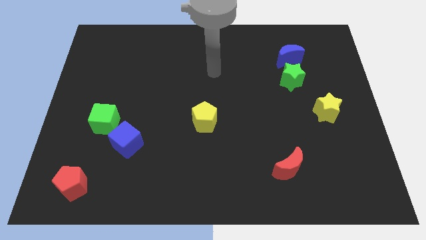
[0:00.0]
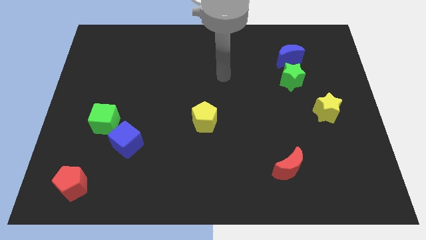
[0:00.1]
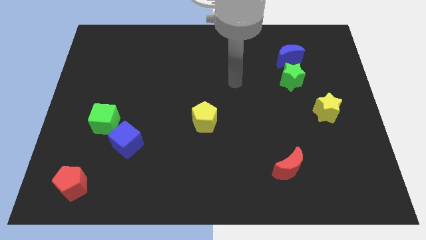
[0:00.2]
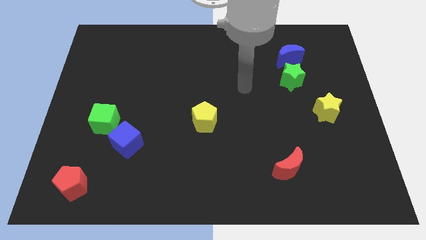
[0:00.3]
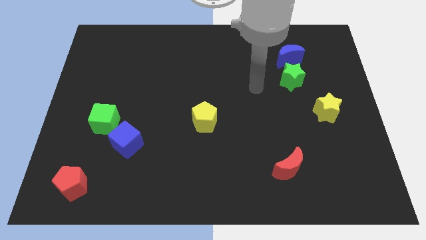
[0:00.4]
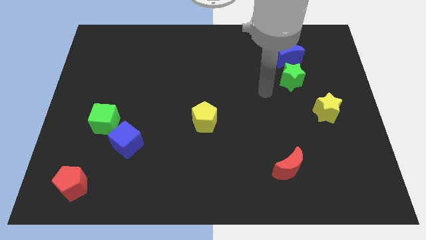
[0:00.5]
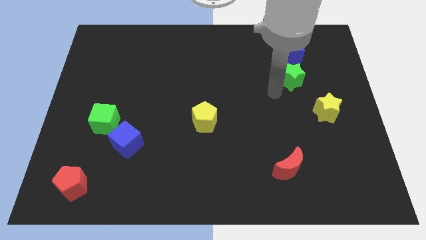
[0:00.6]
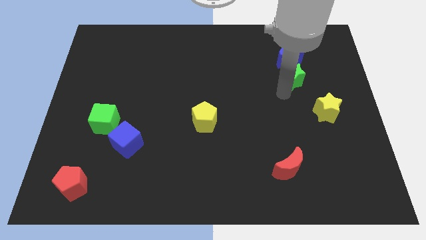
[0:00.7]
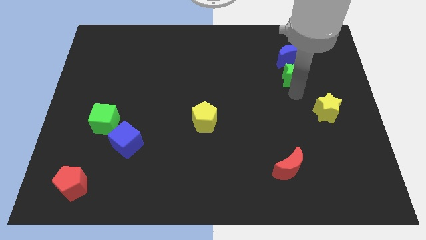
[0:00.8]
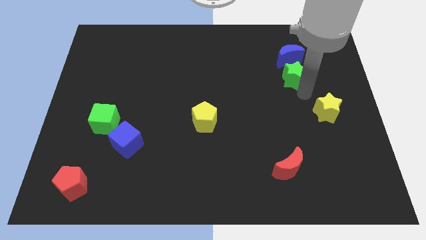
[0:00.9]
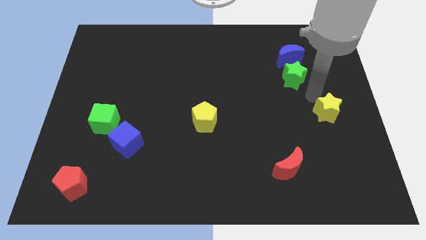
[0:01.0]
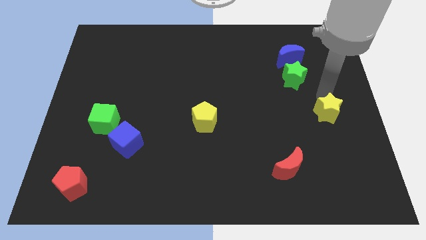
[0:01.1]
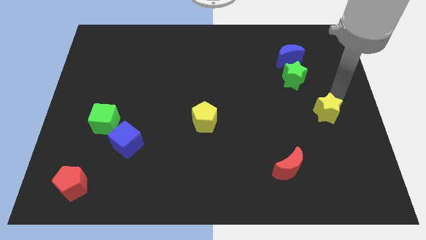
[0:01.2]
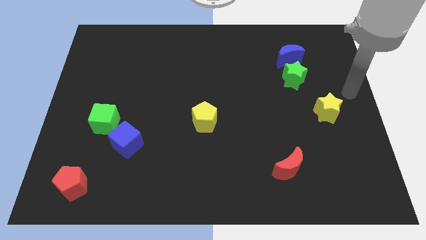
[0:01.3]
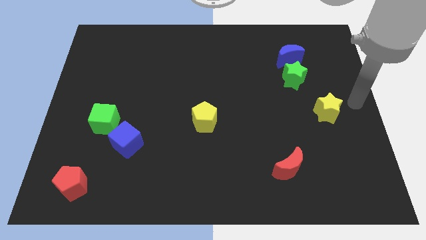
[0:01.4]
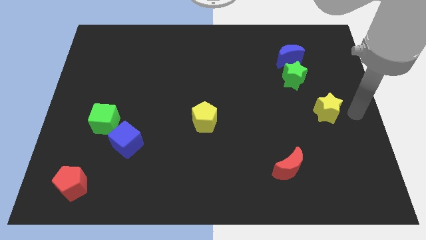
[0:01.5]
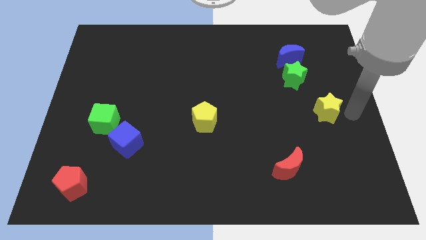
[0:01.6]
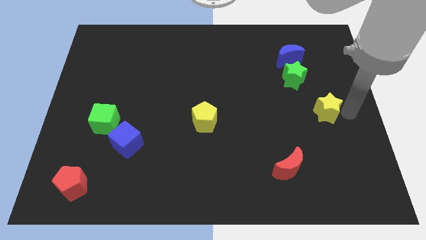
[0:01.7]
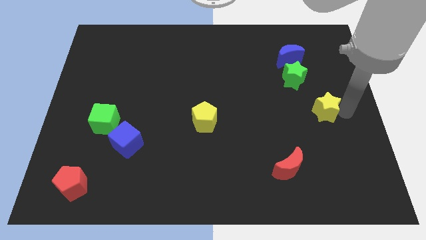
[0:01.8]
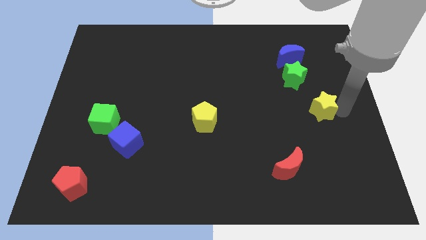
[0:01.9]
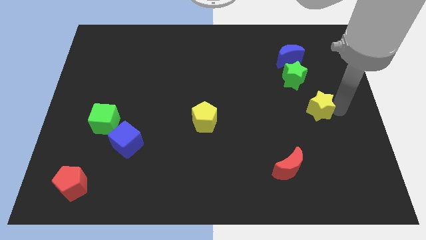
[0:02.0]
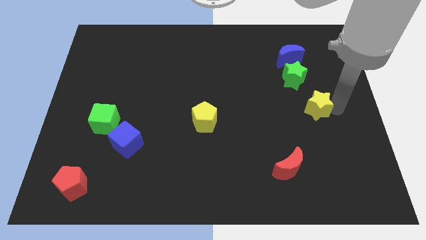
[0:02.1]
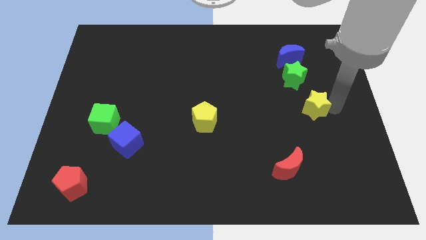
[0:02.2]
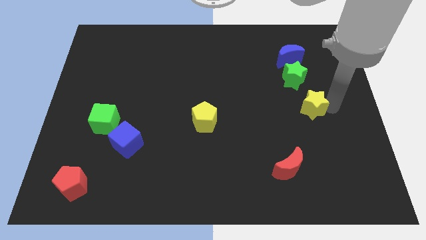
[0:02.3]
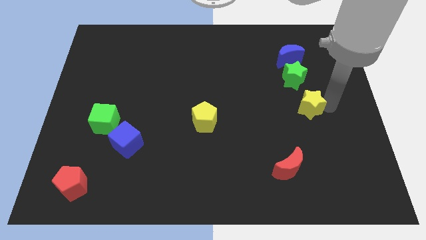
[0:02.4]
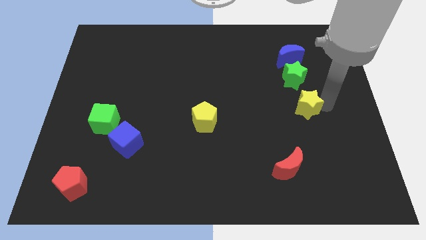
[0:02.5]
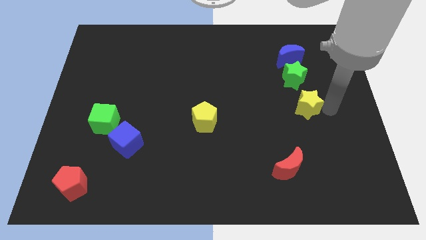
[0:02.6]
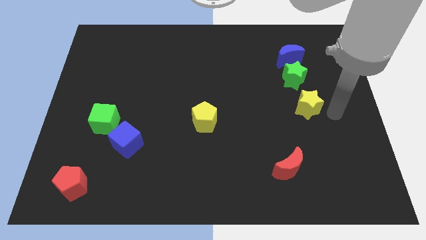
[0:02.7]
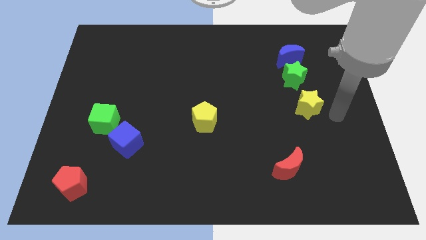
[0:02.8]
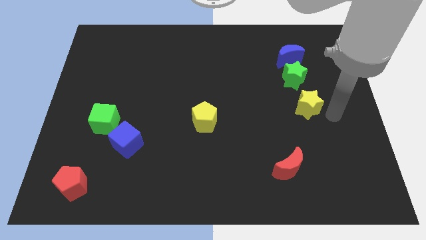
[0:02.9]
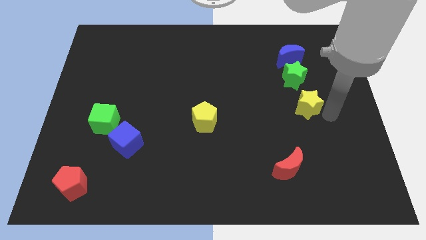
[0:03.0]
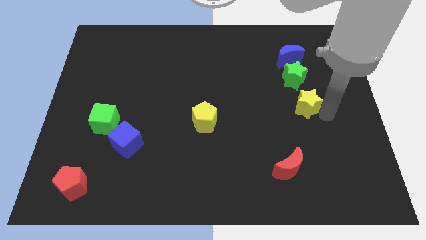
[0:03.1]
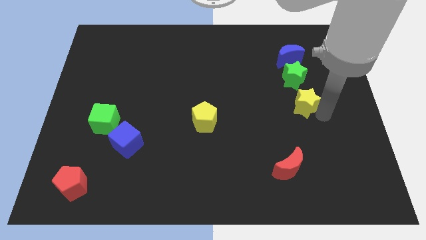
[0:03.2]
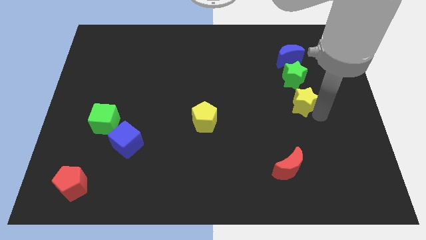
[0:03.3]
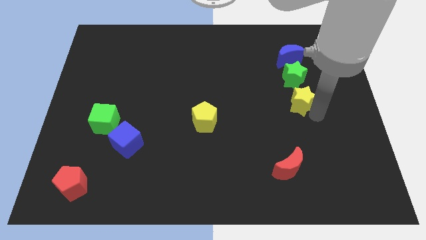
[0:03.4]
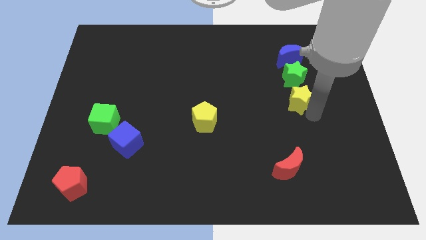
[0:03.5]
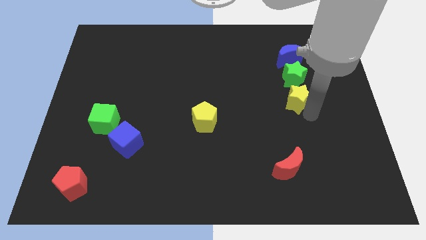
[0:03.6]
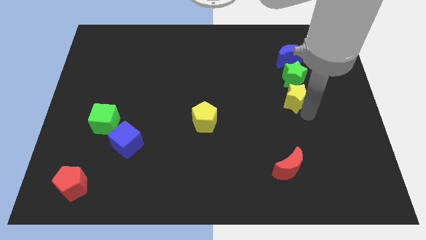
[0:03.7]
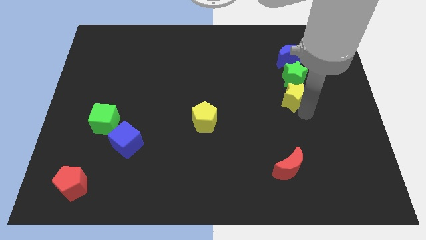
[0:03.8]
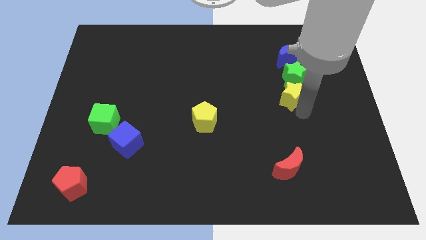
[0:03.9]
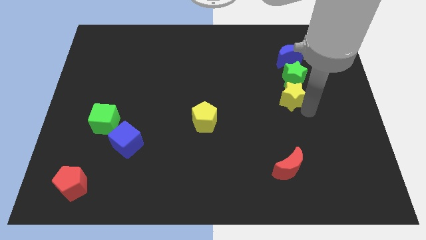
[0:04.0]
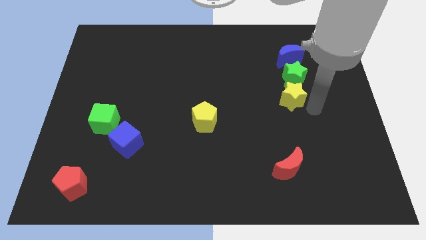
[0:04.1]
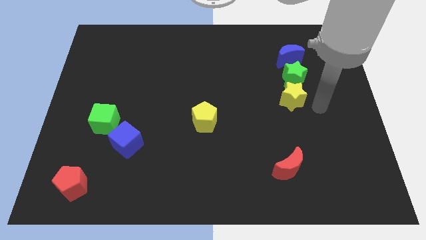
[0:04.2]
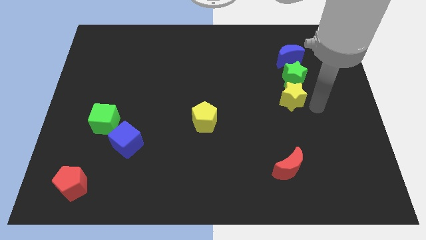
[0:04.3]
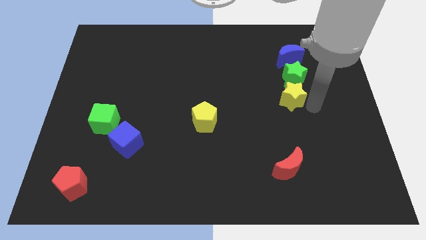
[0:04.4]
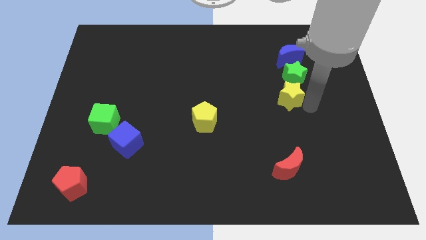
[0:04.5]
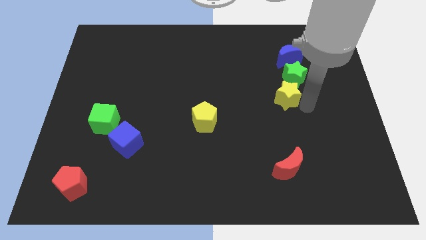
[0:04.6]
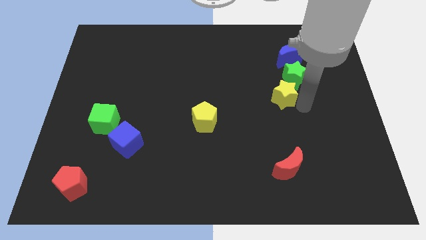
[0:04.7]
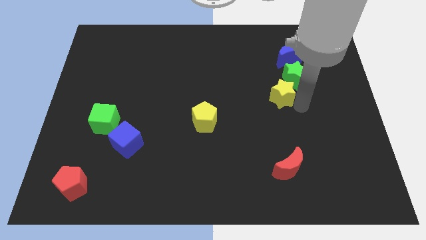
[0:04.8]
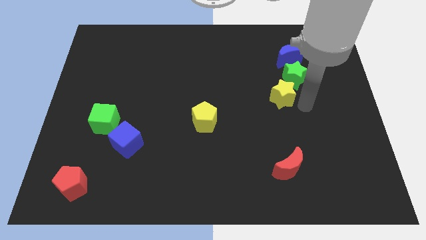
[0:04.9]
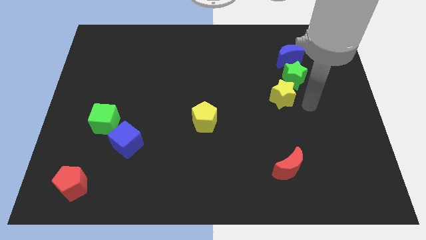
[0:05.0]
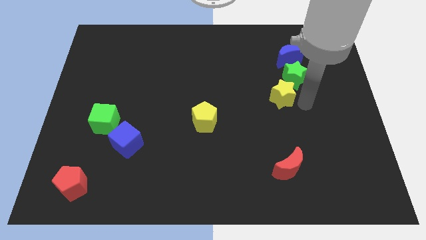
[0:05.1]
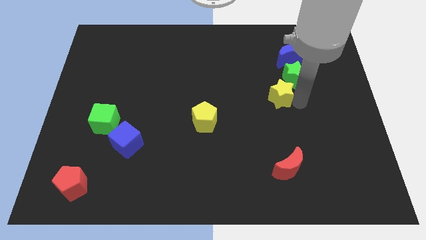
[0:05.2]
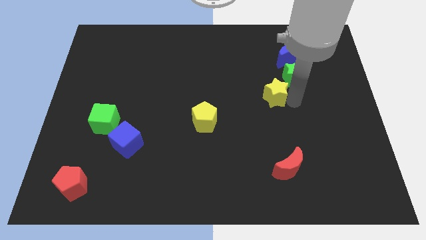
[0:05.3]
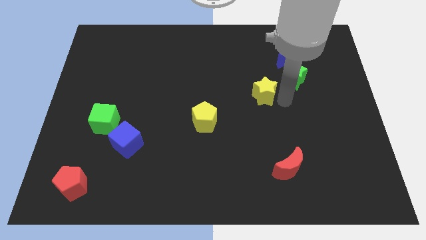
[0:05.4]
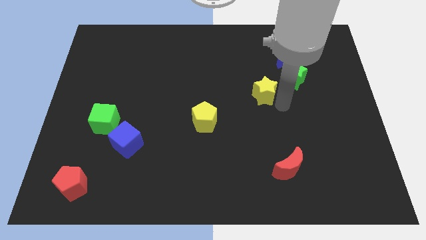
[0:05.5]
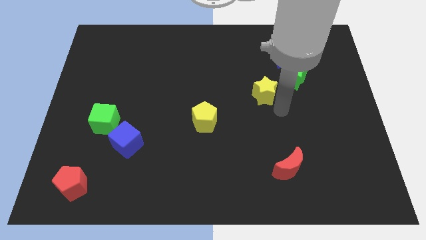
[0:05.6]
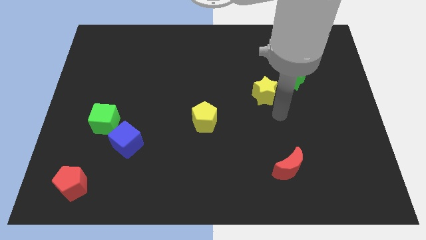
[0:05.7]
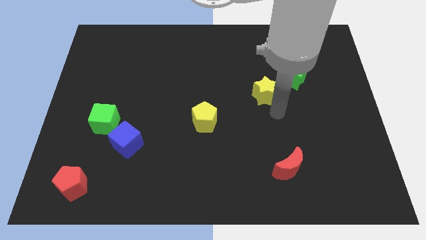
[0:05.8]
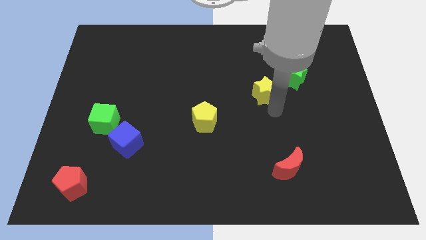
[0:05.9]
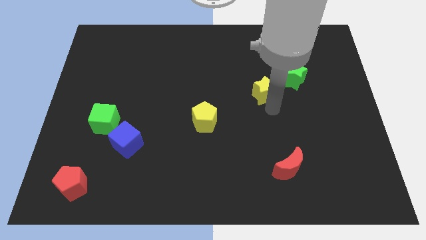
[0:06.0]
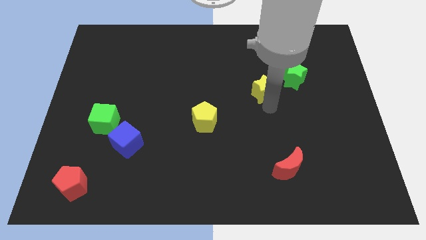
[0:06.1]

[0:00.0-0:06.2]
move the yellow star to the left side of the green star

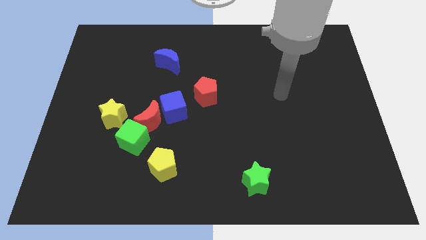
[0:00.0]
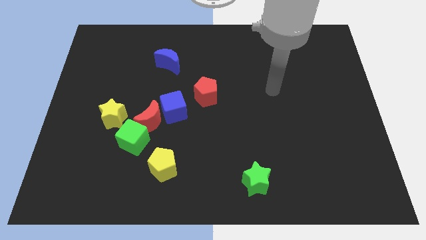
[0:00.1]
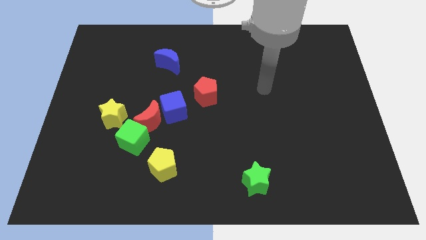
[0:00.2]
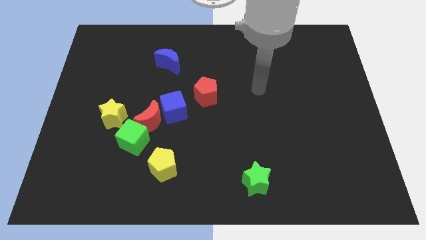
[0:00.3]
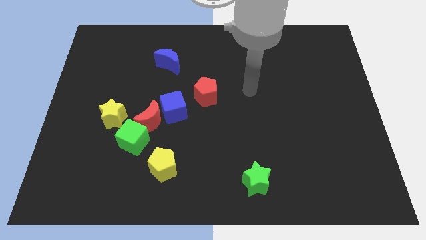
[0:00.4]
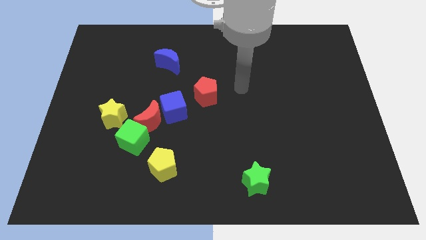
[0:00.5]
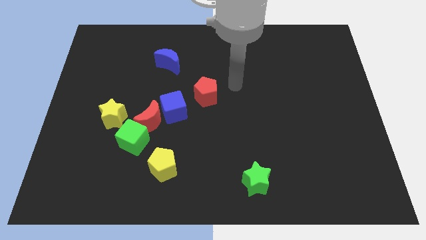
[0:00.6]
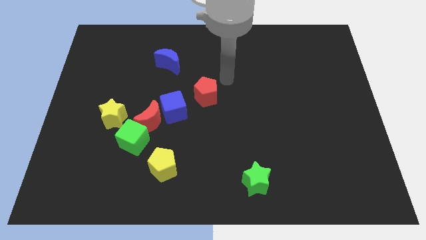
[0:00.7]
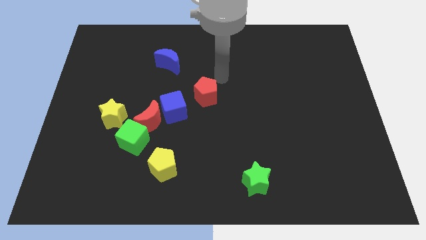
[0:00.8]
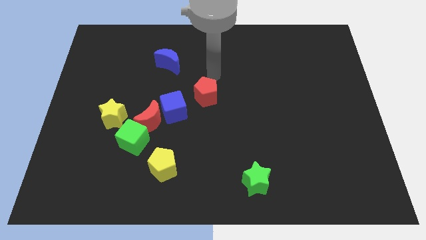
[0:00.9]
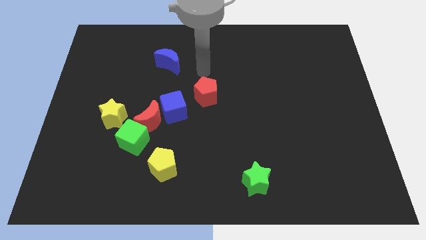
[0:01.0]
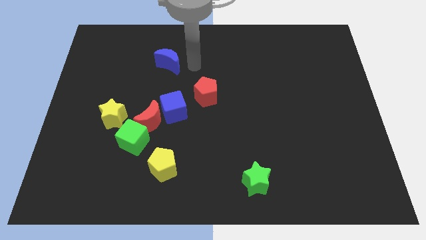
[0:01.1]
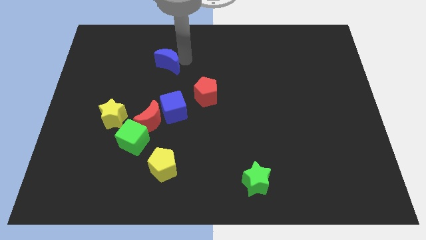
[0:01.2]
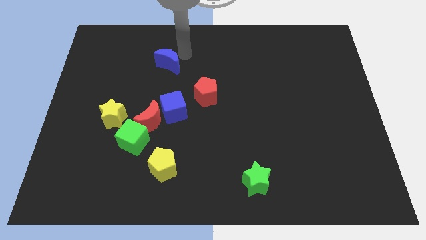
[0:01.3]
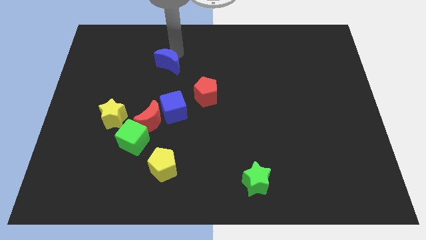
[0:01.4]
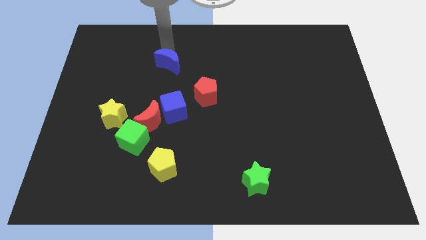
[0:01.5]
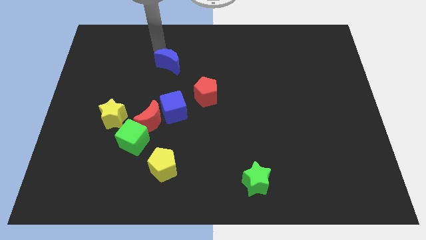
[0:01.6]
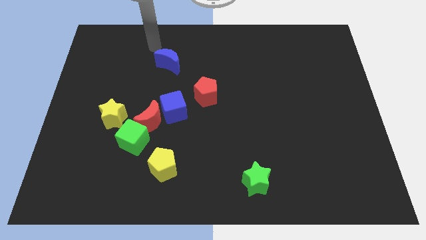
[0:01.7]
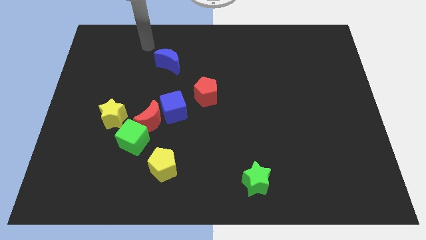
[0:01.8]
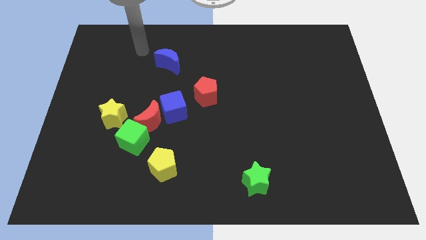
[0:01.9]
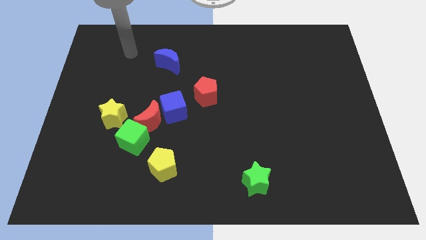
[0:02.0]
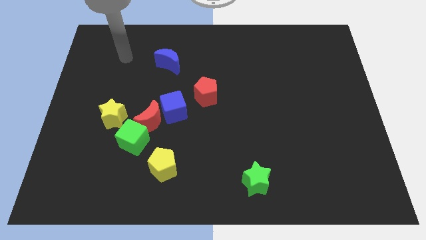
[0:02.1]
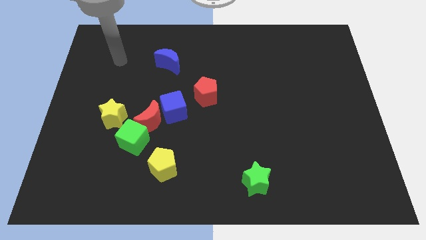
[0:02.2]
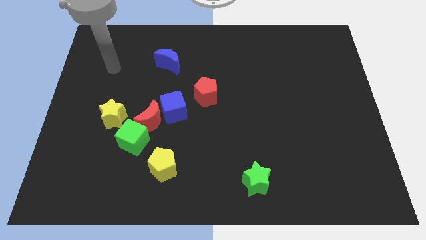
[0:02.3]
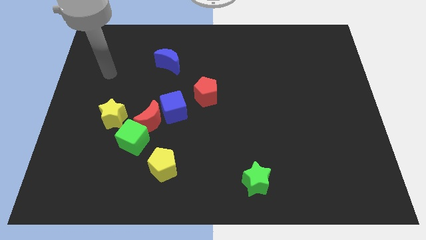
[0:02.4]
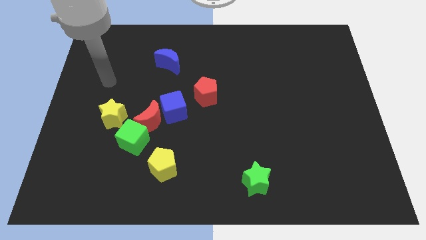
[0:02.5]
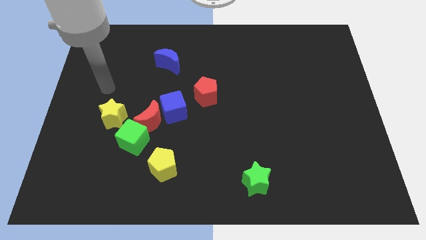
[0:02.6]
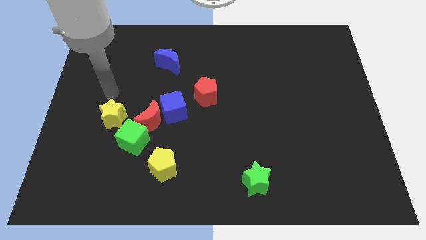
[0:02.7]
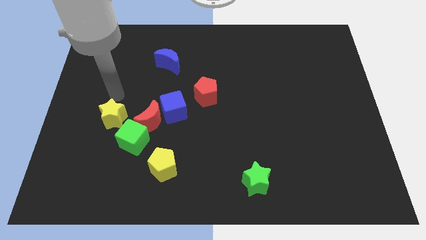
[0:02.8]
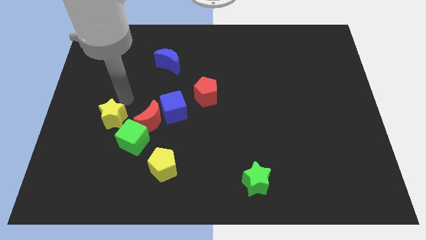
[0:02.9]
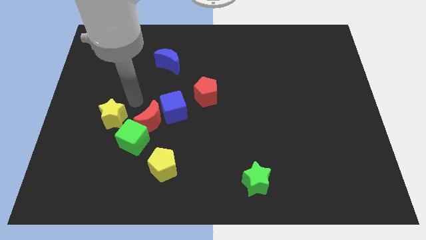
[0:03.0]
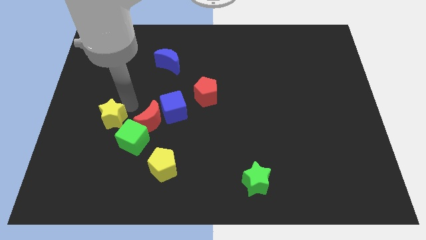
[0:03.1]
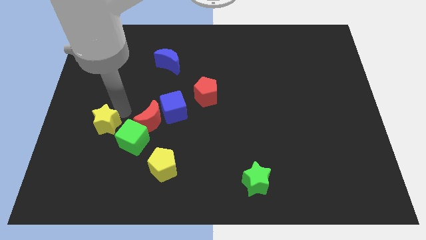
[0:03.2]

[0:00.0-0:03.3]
put the yellow star just left of the green cube
